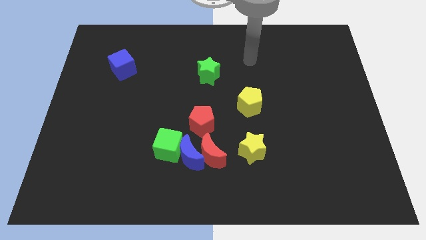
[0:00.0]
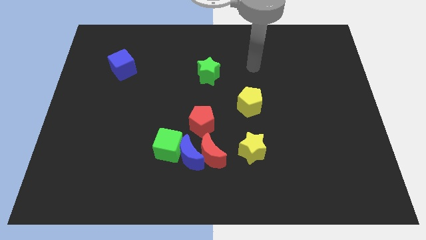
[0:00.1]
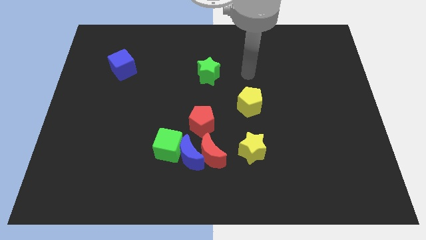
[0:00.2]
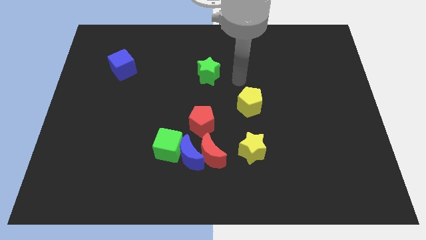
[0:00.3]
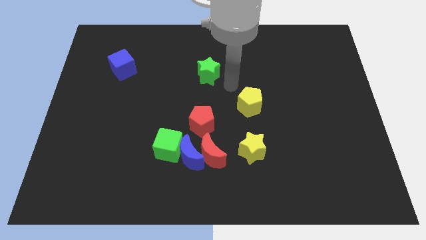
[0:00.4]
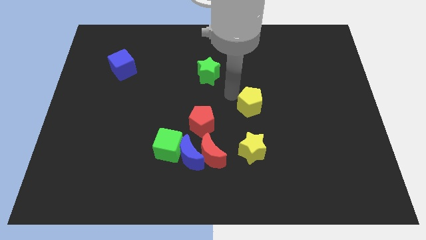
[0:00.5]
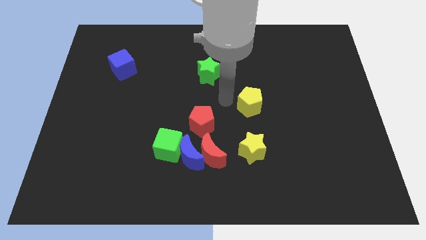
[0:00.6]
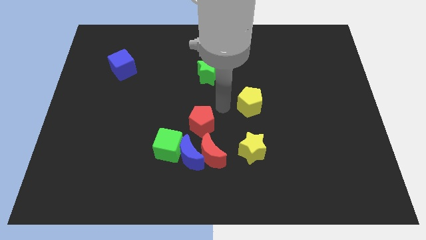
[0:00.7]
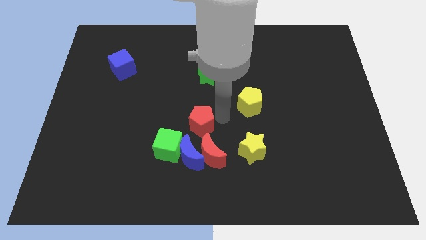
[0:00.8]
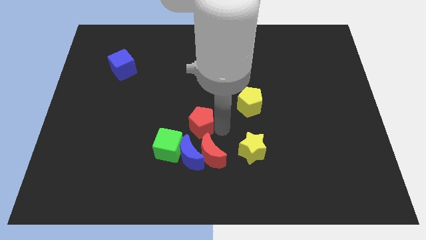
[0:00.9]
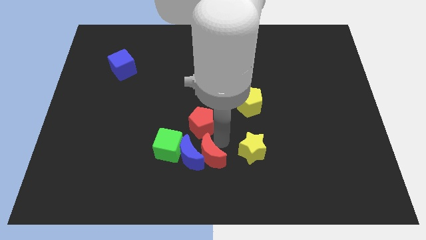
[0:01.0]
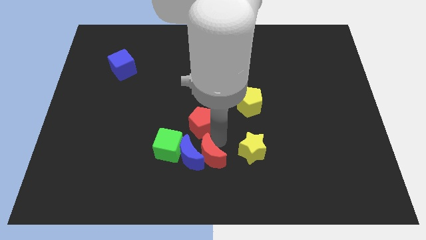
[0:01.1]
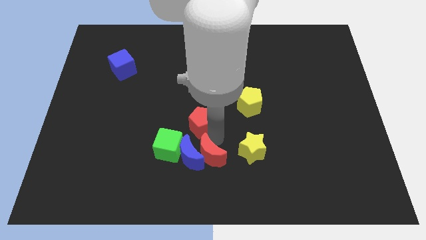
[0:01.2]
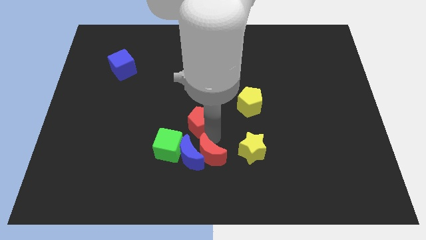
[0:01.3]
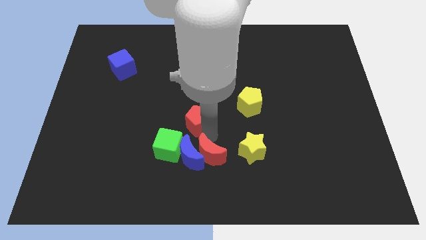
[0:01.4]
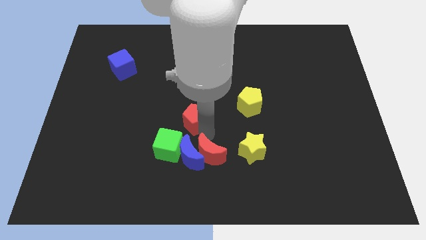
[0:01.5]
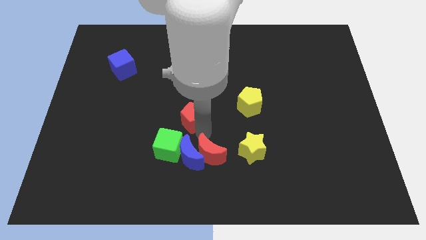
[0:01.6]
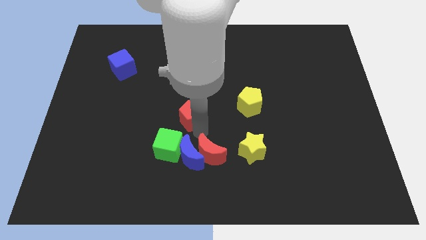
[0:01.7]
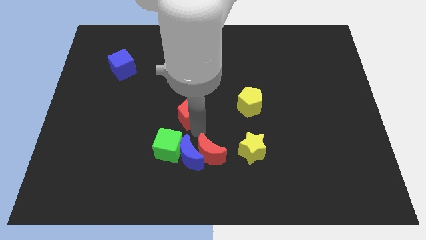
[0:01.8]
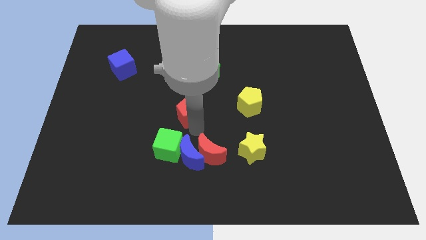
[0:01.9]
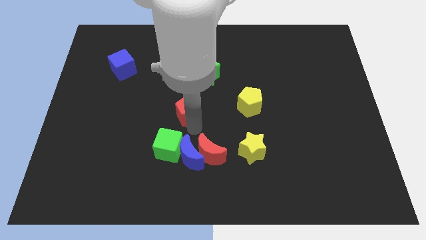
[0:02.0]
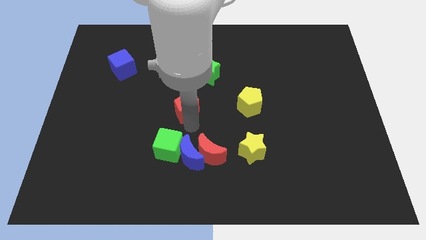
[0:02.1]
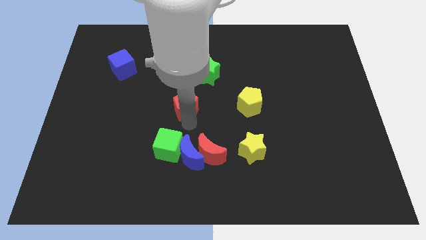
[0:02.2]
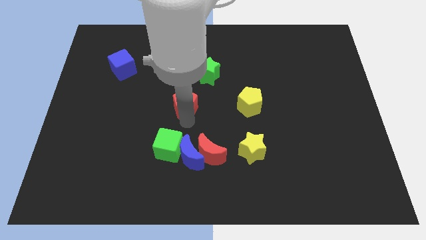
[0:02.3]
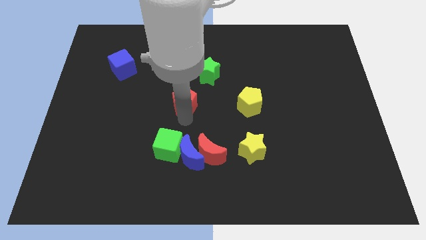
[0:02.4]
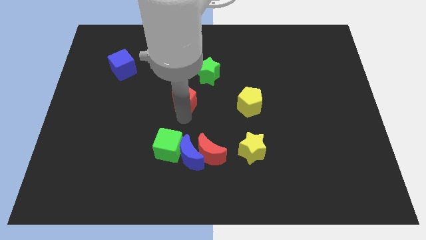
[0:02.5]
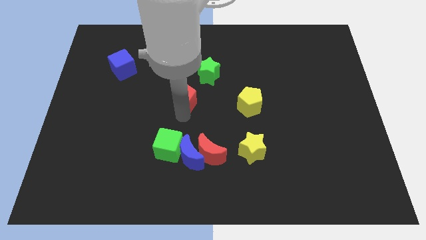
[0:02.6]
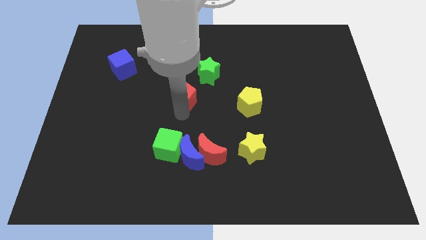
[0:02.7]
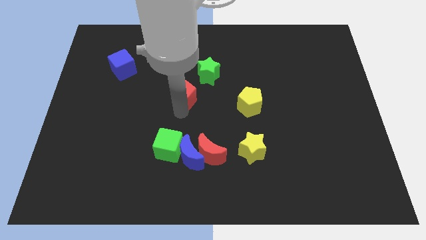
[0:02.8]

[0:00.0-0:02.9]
slide the red pentagon a bit up

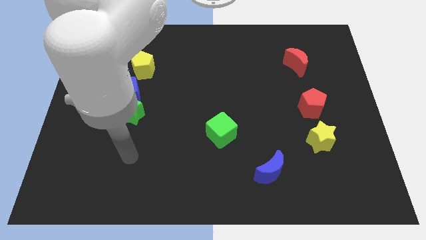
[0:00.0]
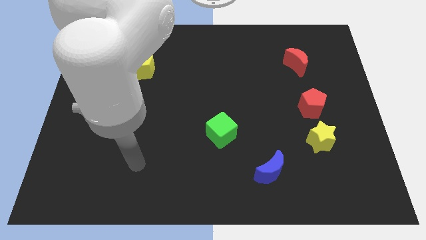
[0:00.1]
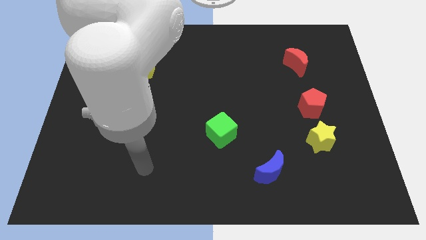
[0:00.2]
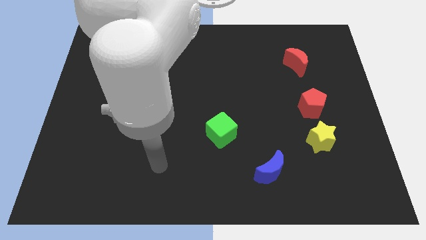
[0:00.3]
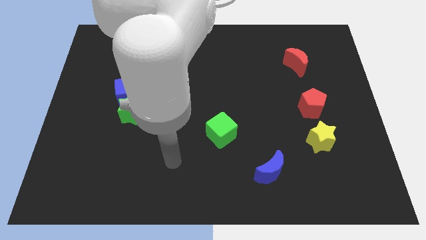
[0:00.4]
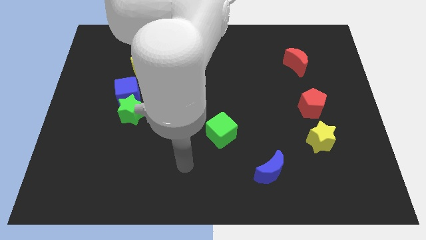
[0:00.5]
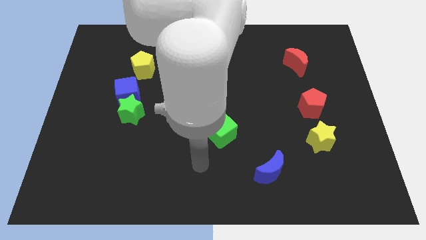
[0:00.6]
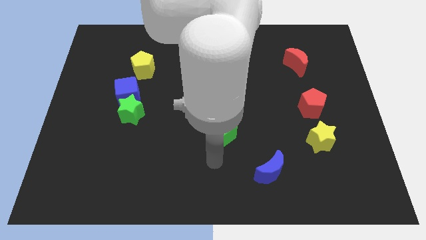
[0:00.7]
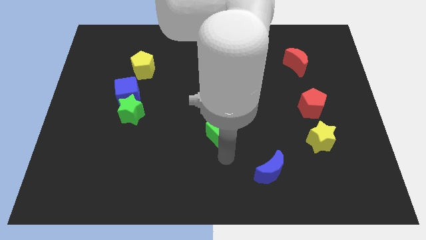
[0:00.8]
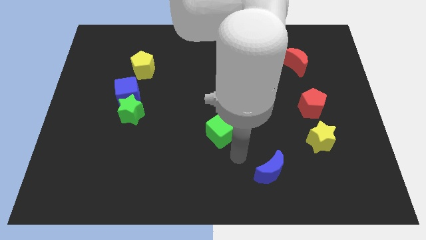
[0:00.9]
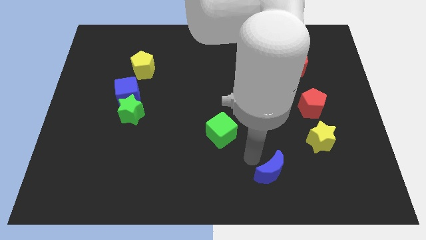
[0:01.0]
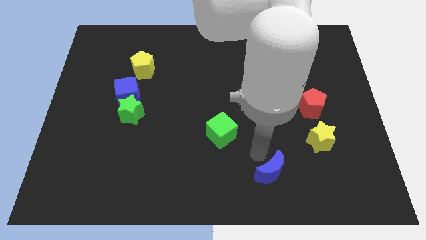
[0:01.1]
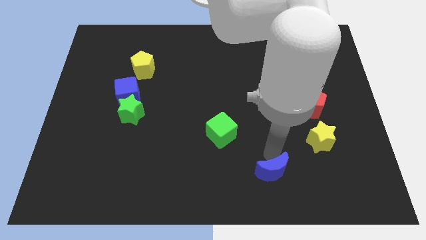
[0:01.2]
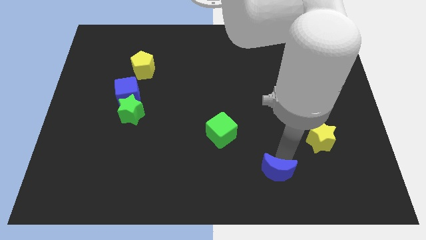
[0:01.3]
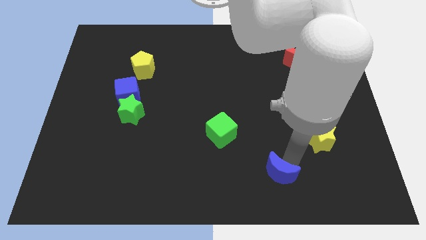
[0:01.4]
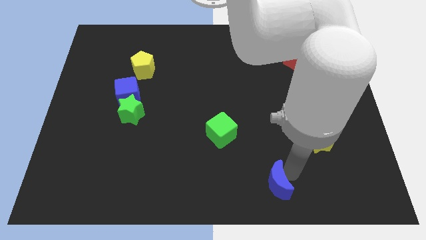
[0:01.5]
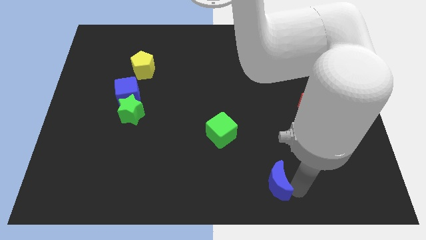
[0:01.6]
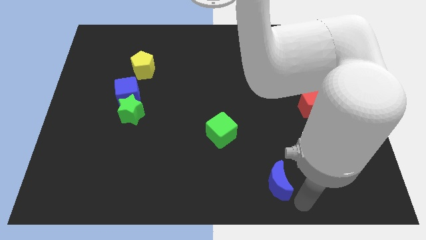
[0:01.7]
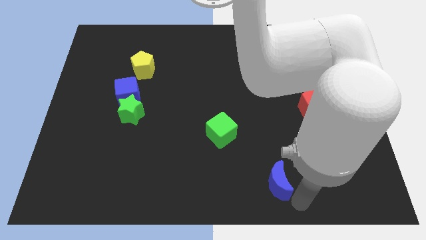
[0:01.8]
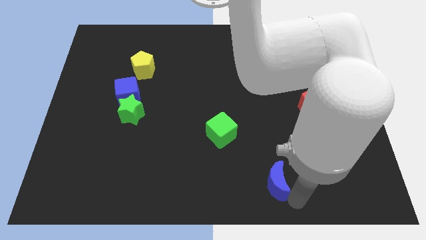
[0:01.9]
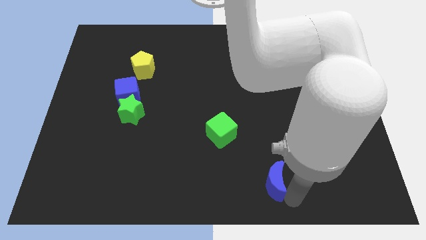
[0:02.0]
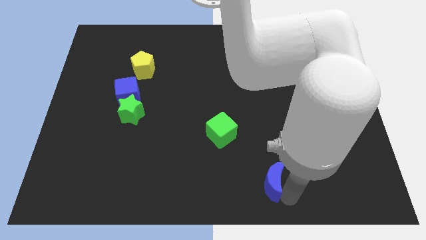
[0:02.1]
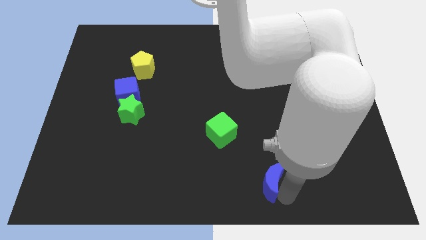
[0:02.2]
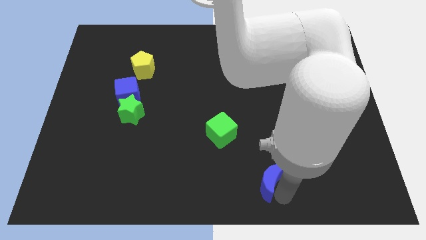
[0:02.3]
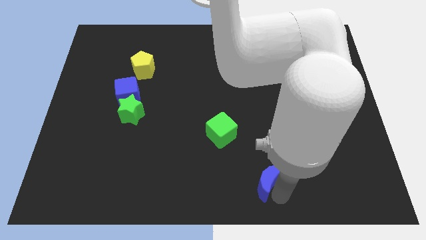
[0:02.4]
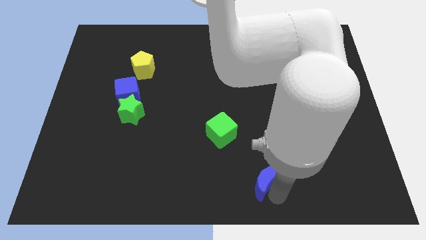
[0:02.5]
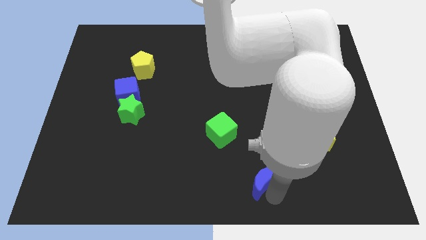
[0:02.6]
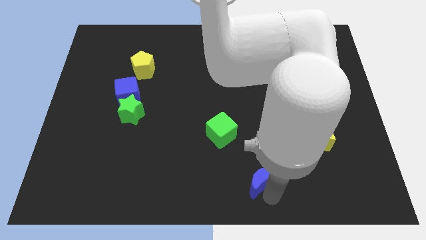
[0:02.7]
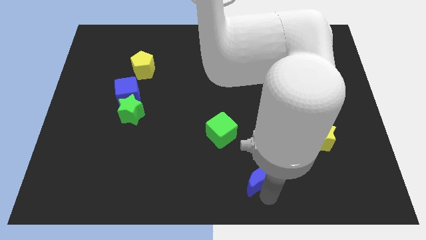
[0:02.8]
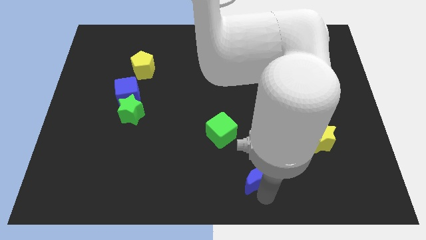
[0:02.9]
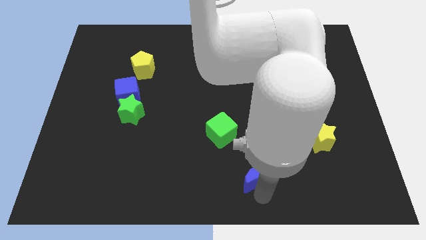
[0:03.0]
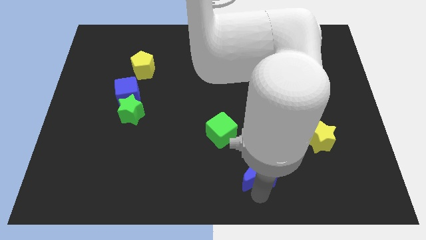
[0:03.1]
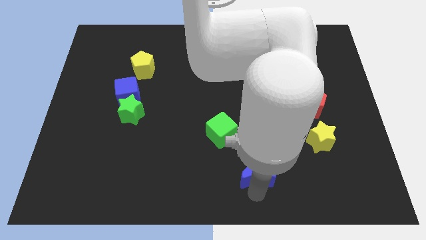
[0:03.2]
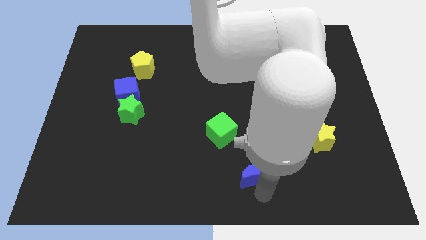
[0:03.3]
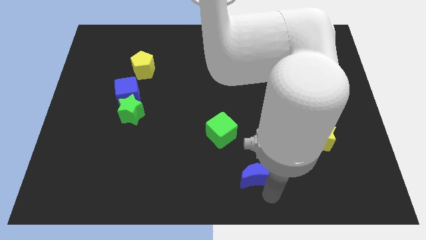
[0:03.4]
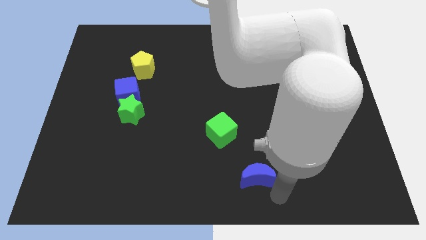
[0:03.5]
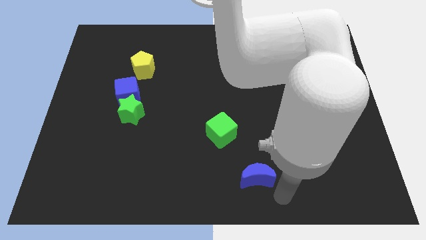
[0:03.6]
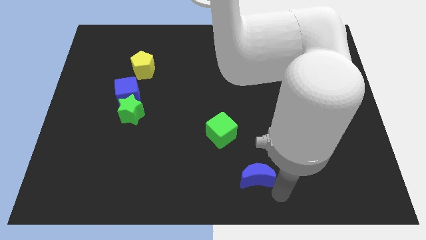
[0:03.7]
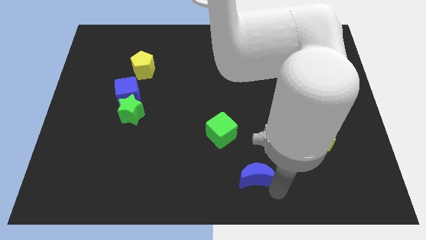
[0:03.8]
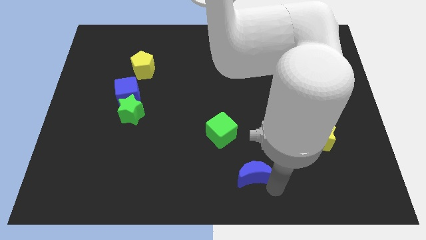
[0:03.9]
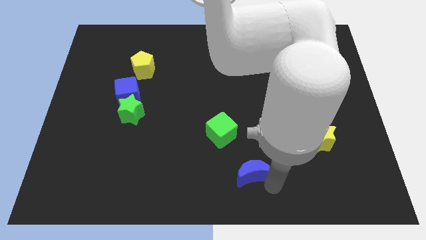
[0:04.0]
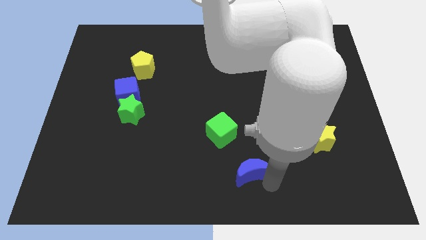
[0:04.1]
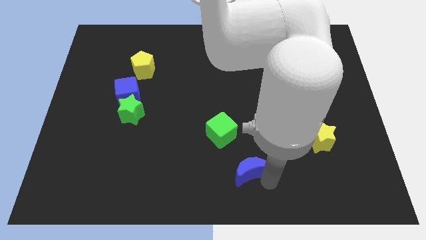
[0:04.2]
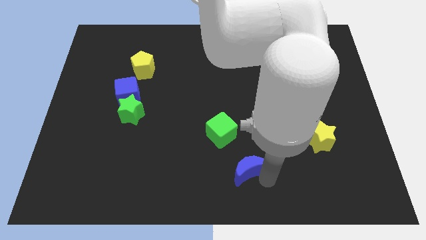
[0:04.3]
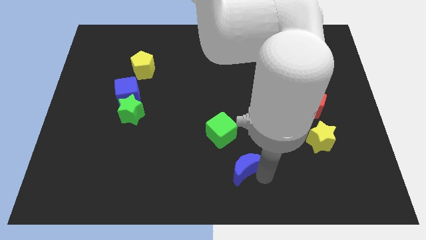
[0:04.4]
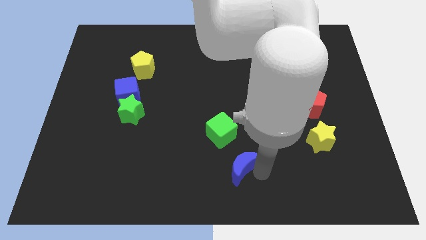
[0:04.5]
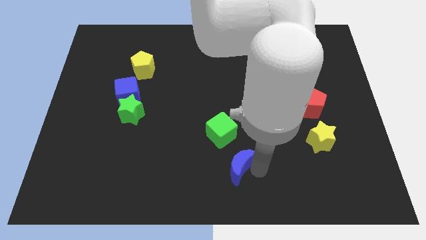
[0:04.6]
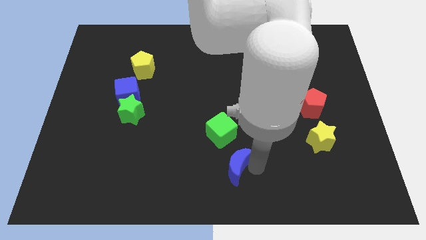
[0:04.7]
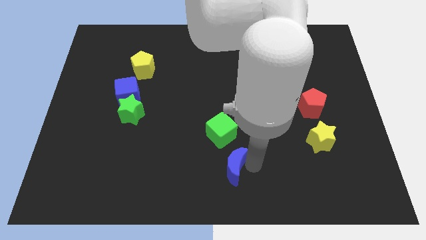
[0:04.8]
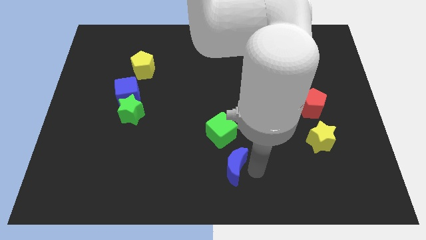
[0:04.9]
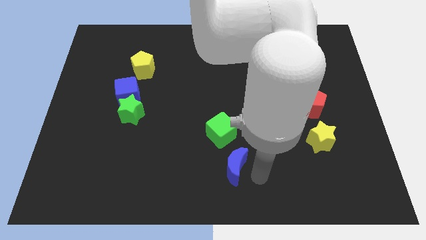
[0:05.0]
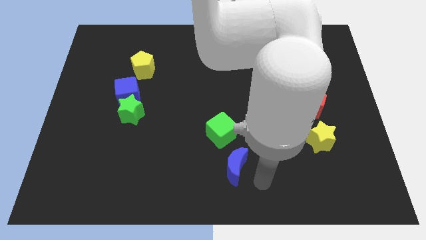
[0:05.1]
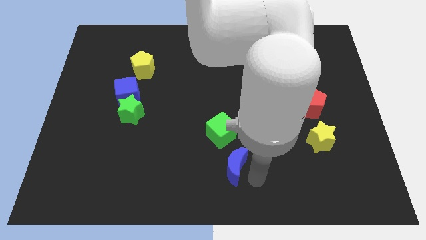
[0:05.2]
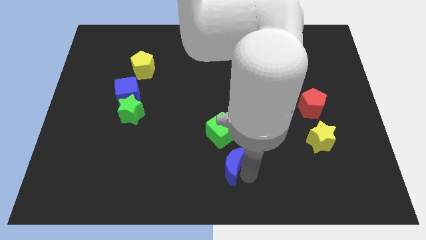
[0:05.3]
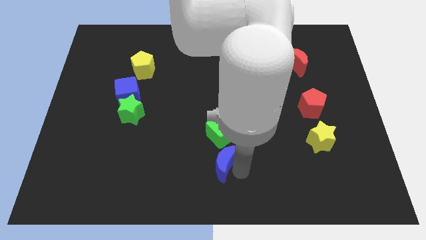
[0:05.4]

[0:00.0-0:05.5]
push the blue moon up and then to the left a bit

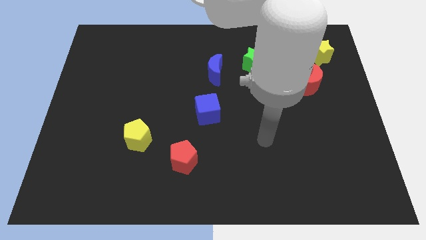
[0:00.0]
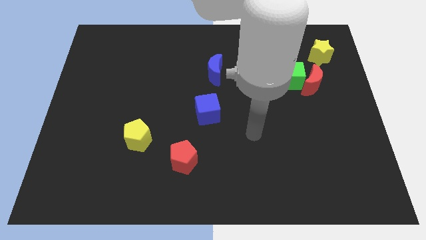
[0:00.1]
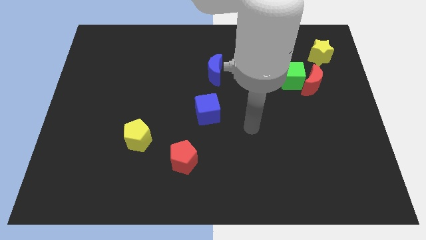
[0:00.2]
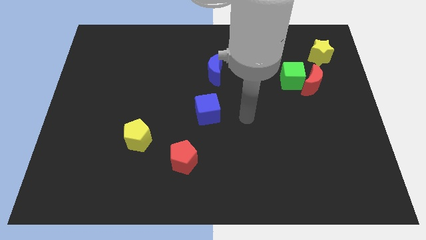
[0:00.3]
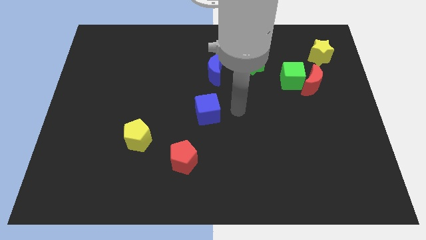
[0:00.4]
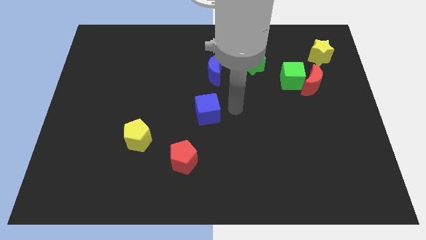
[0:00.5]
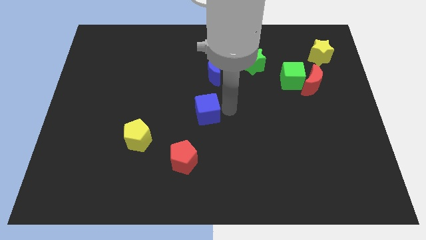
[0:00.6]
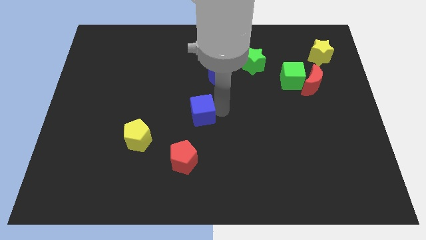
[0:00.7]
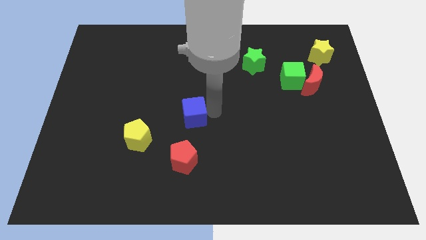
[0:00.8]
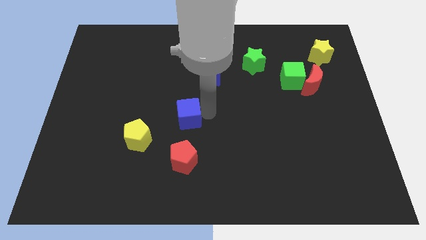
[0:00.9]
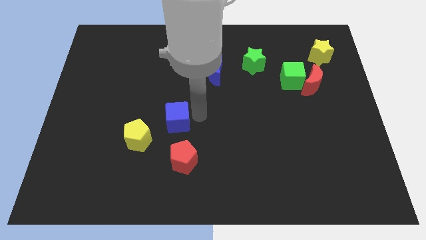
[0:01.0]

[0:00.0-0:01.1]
slide the blue cube somewhat to the left
